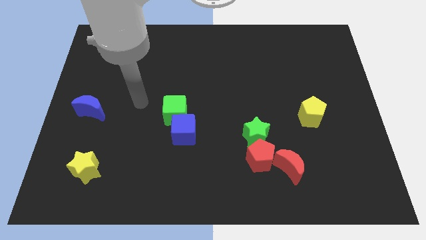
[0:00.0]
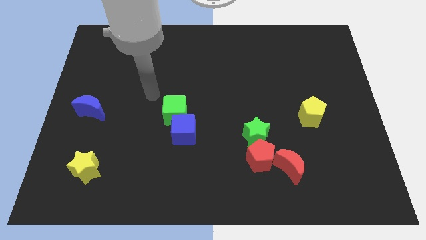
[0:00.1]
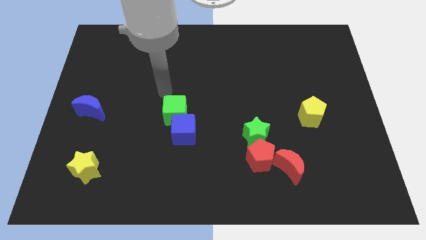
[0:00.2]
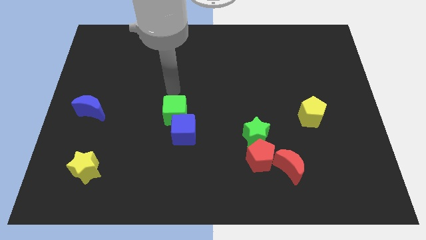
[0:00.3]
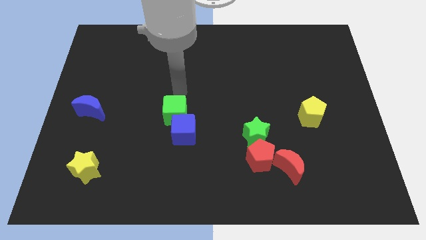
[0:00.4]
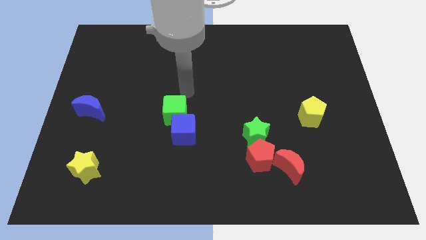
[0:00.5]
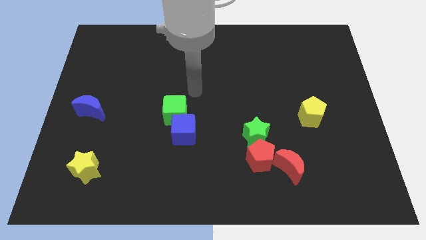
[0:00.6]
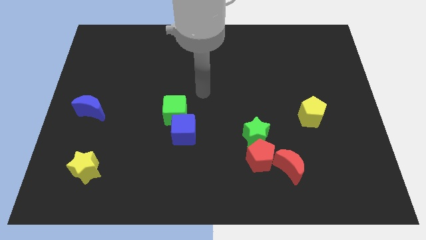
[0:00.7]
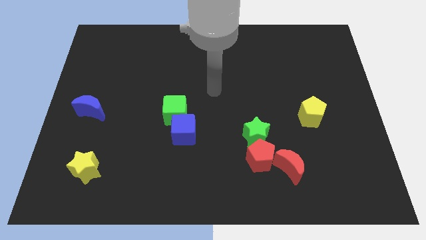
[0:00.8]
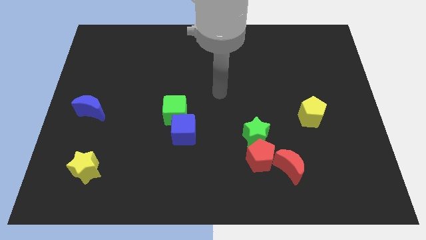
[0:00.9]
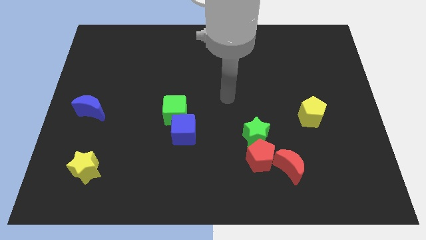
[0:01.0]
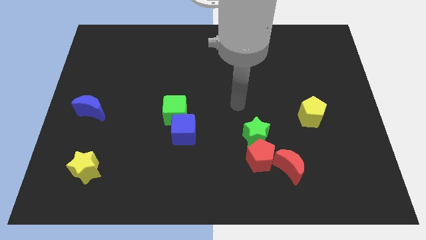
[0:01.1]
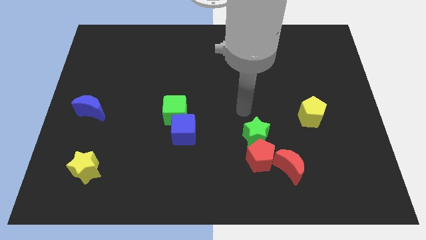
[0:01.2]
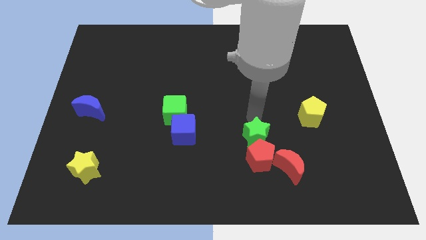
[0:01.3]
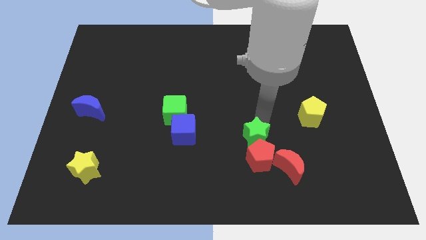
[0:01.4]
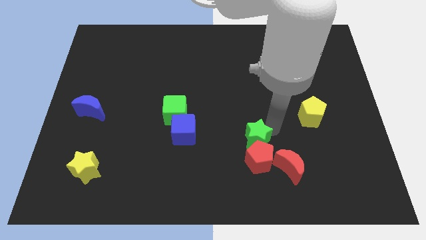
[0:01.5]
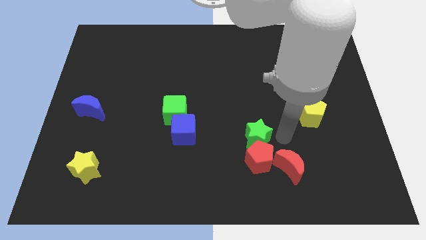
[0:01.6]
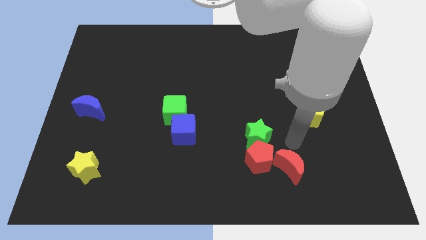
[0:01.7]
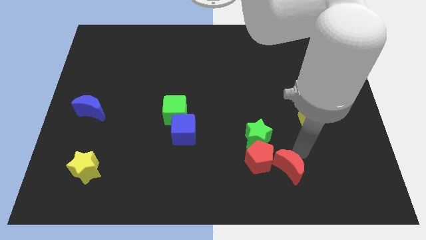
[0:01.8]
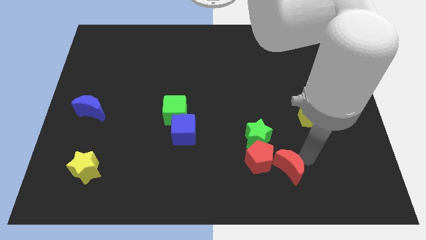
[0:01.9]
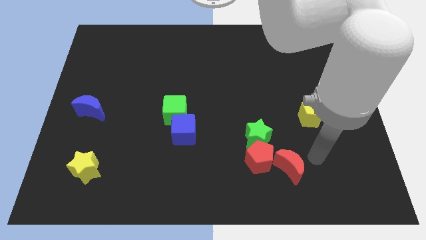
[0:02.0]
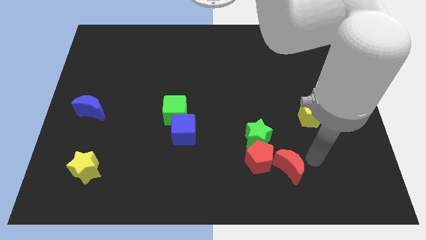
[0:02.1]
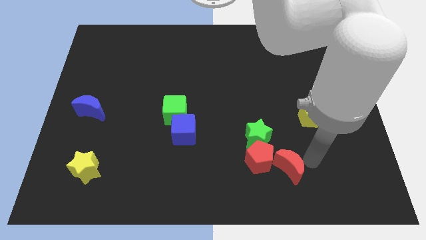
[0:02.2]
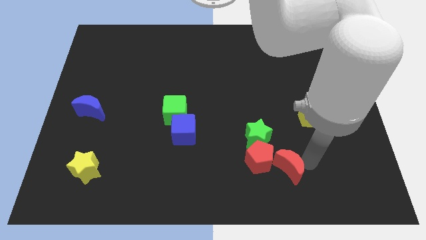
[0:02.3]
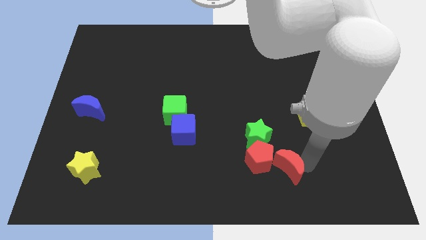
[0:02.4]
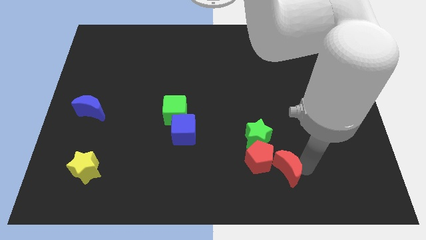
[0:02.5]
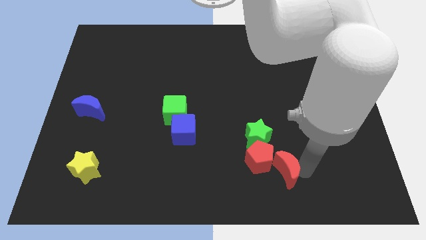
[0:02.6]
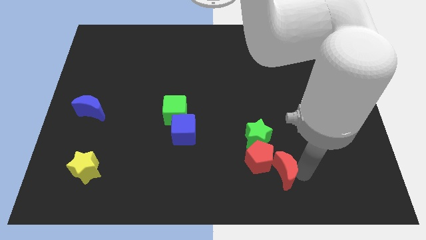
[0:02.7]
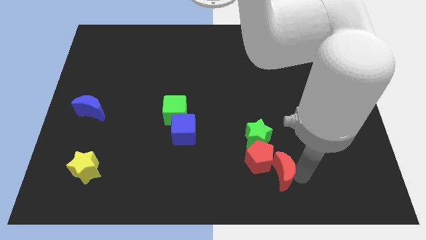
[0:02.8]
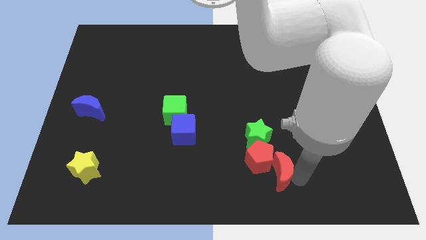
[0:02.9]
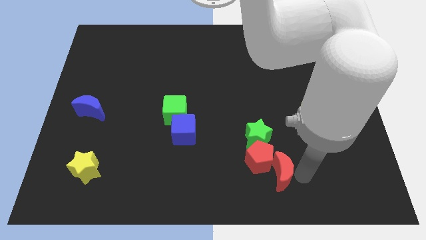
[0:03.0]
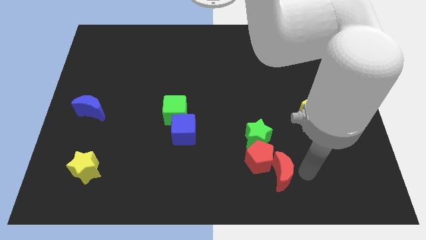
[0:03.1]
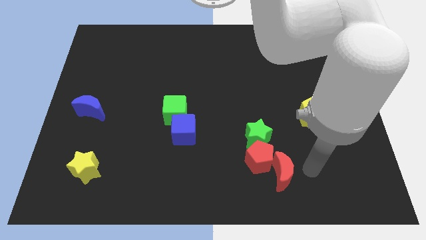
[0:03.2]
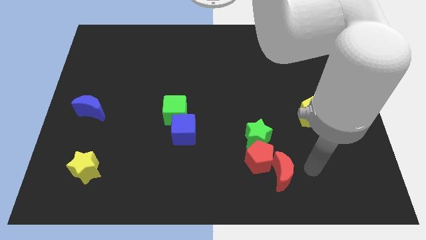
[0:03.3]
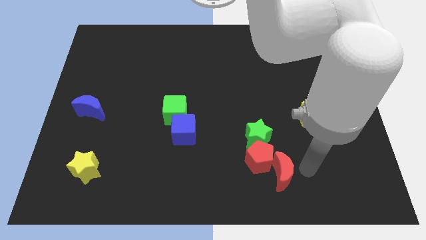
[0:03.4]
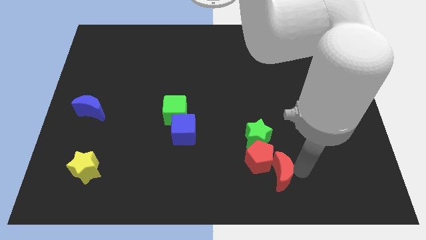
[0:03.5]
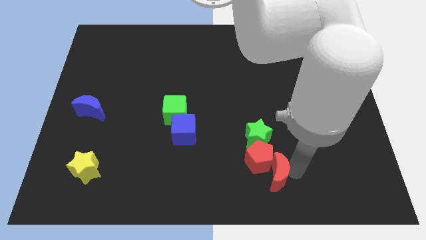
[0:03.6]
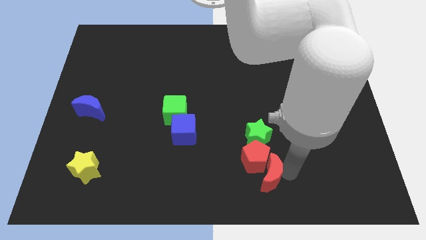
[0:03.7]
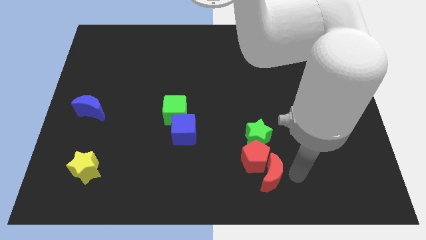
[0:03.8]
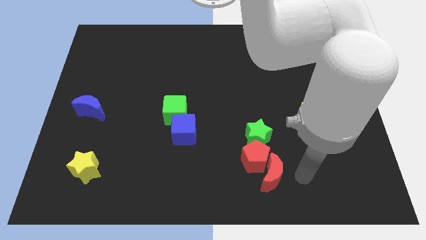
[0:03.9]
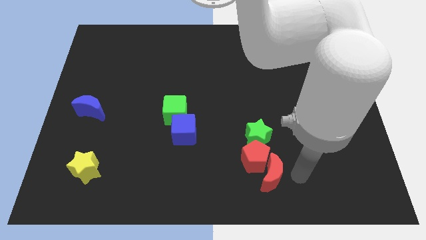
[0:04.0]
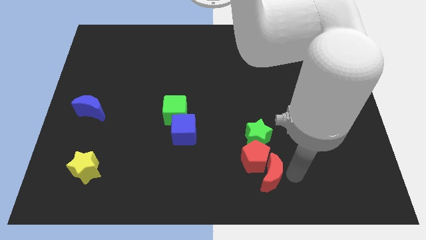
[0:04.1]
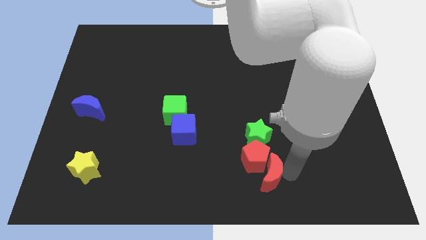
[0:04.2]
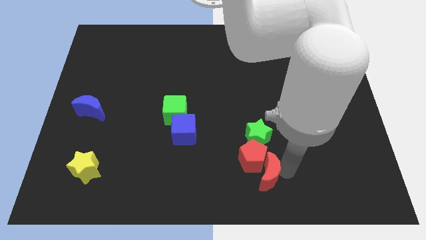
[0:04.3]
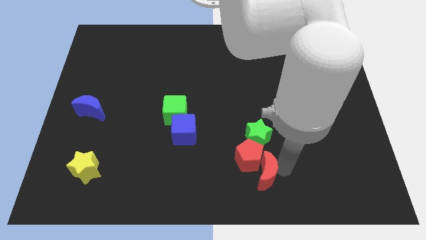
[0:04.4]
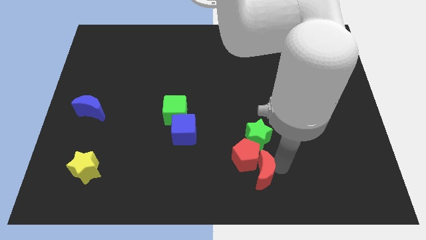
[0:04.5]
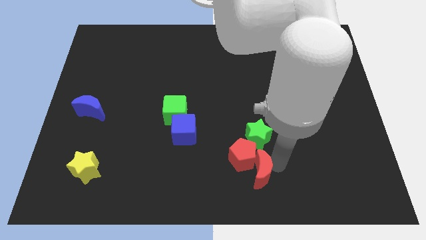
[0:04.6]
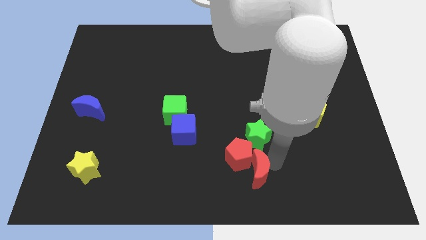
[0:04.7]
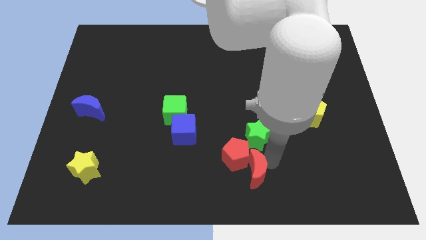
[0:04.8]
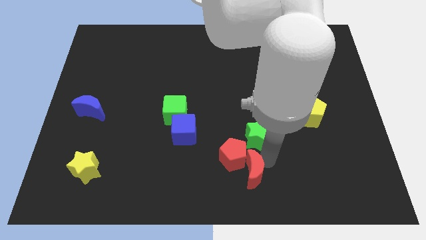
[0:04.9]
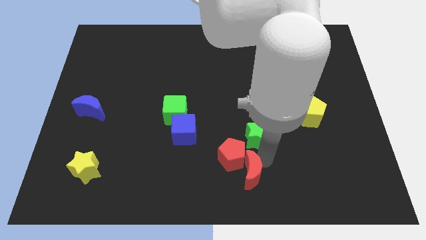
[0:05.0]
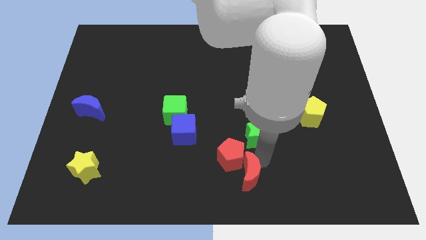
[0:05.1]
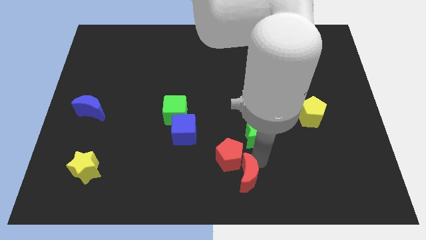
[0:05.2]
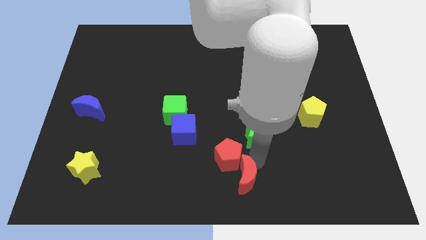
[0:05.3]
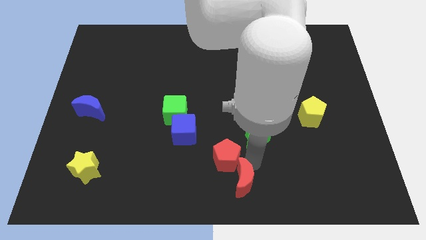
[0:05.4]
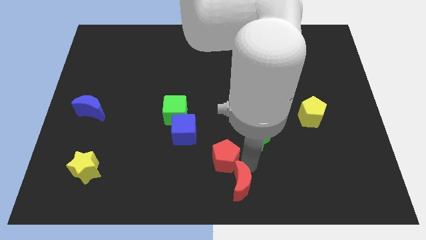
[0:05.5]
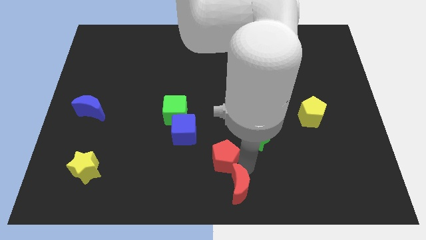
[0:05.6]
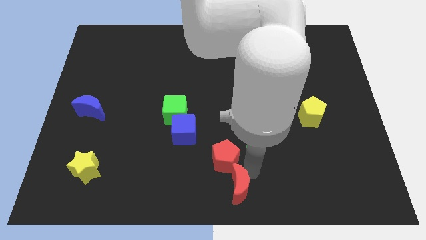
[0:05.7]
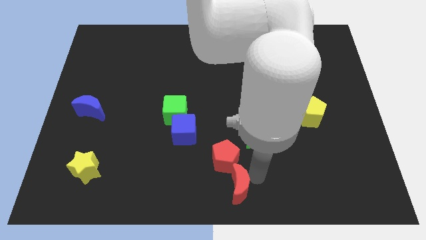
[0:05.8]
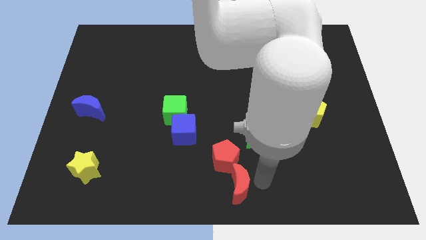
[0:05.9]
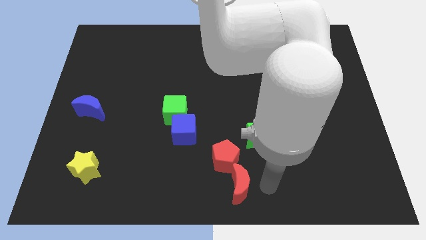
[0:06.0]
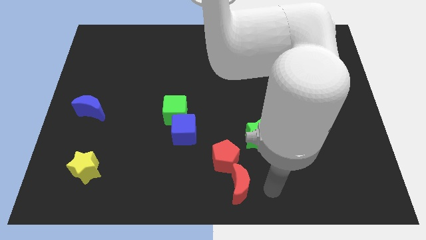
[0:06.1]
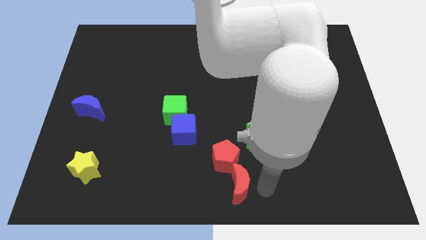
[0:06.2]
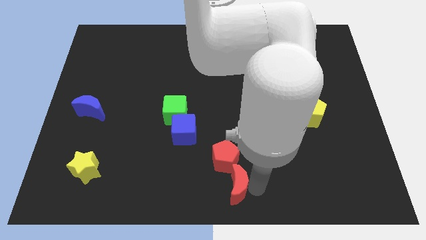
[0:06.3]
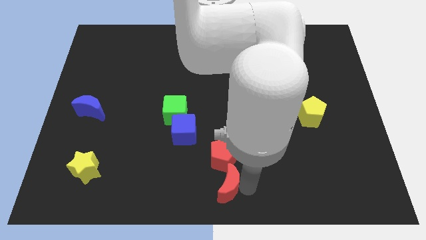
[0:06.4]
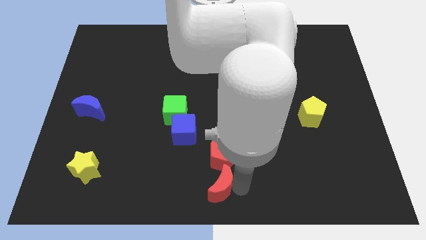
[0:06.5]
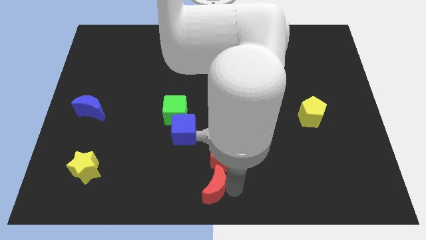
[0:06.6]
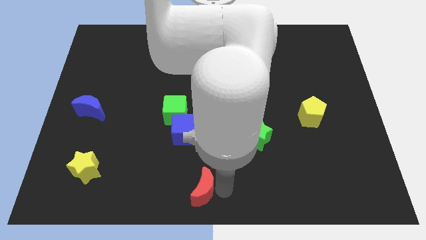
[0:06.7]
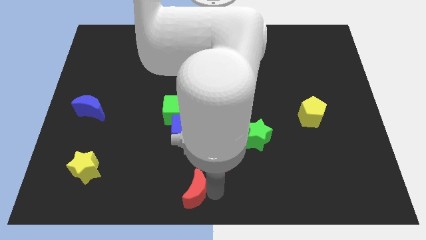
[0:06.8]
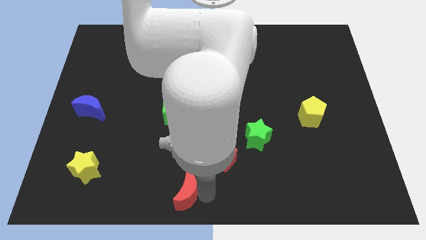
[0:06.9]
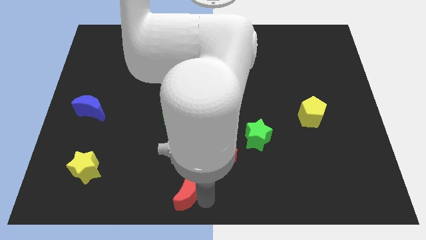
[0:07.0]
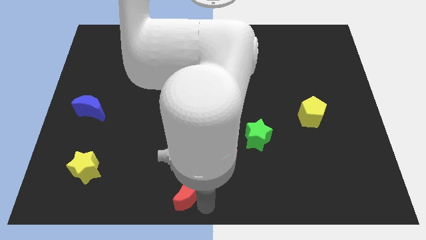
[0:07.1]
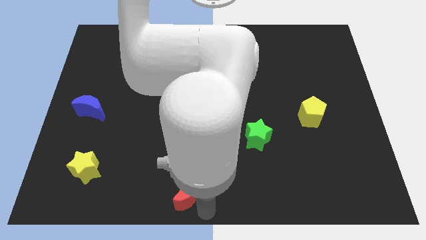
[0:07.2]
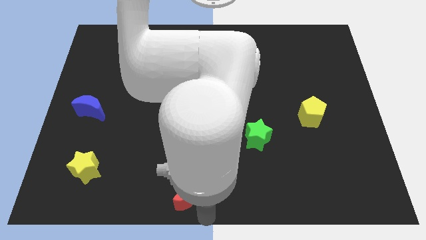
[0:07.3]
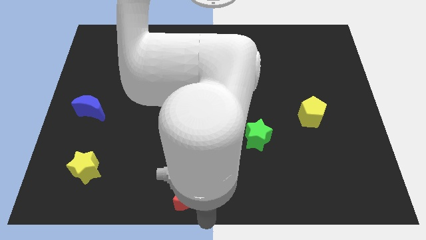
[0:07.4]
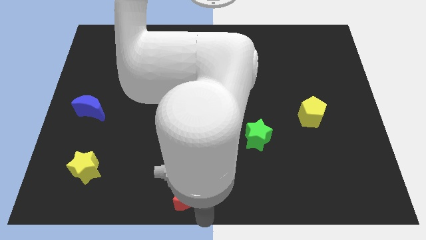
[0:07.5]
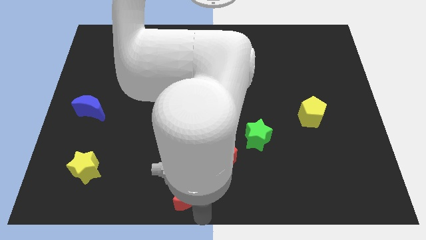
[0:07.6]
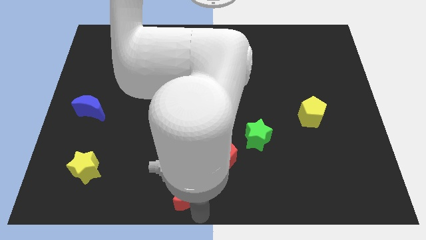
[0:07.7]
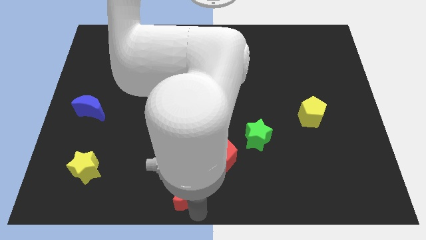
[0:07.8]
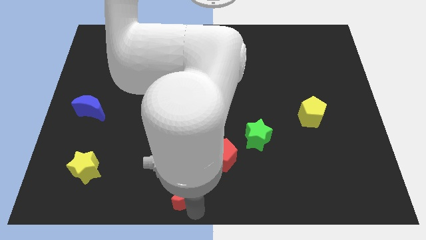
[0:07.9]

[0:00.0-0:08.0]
move the red moon left
